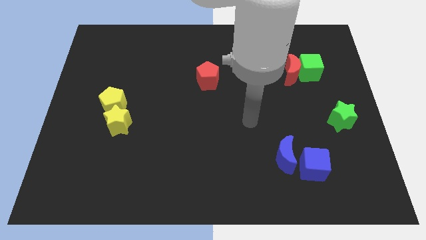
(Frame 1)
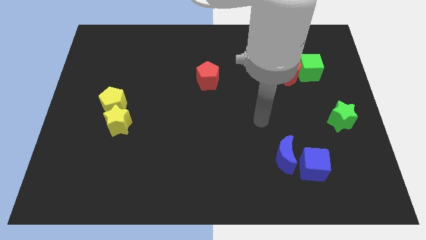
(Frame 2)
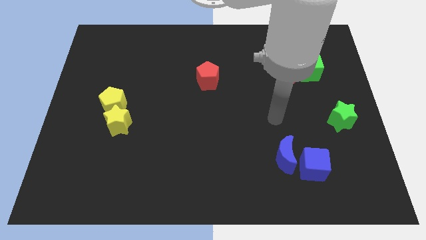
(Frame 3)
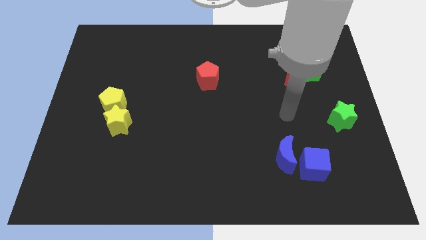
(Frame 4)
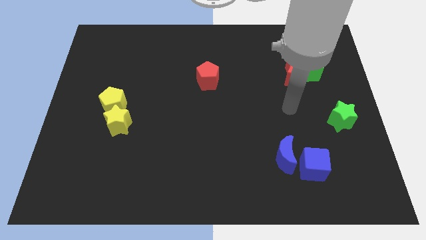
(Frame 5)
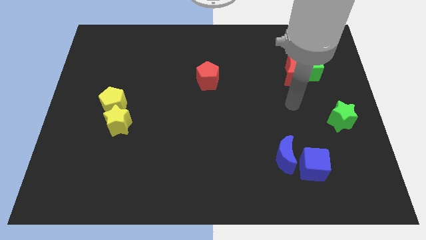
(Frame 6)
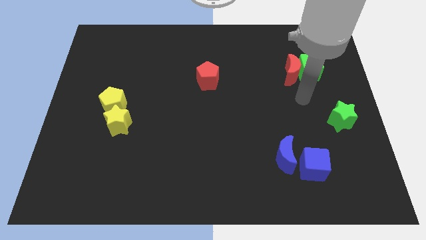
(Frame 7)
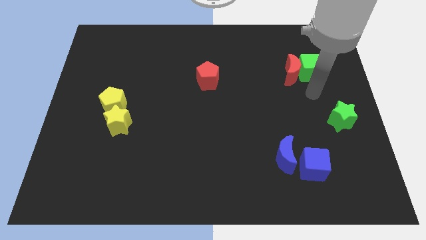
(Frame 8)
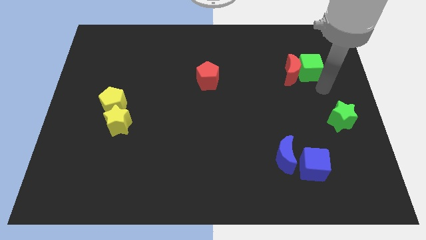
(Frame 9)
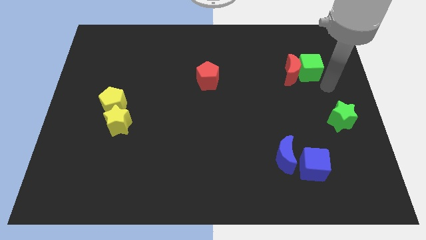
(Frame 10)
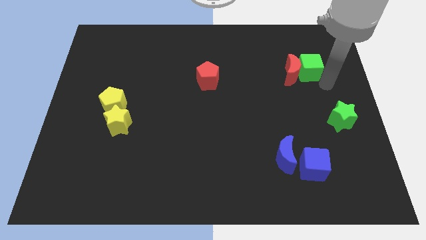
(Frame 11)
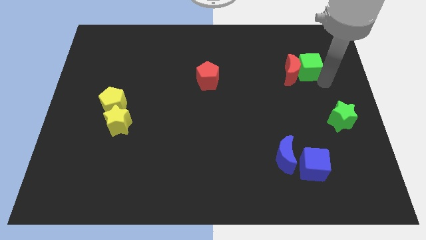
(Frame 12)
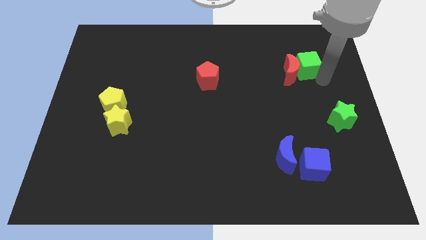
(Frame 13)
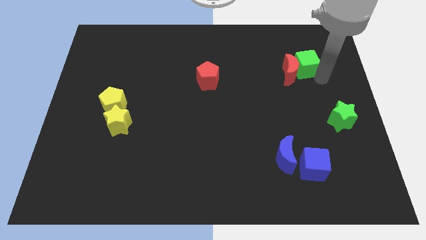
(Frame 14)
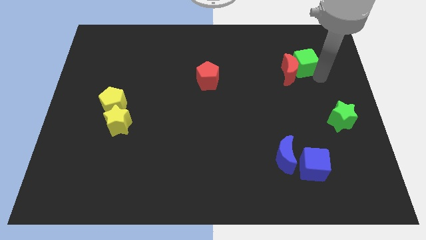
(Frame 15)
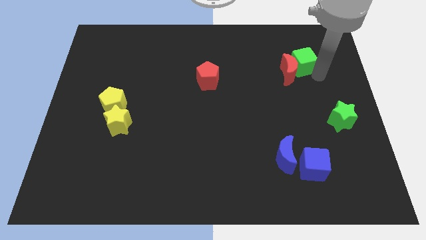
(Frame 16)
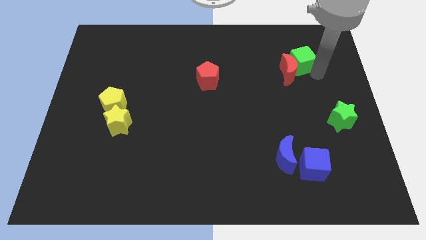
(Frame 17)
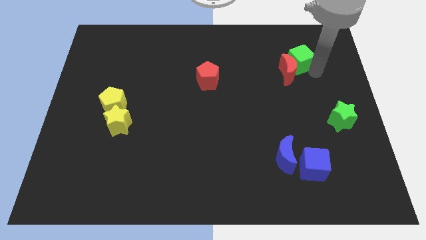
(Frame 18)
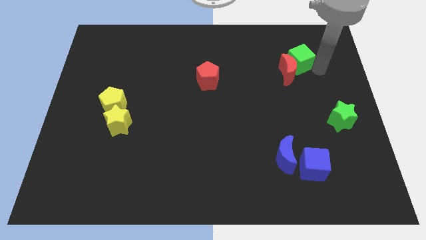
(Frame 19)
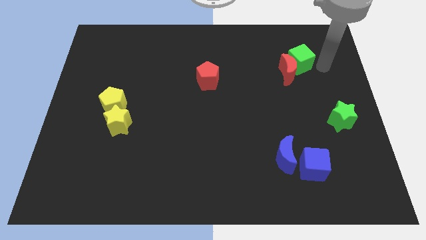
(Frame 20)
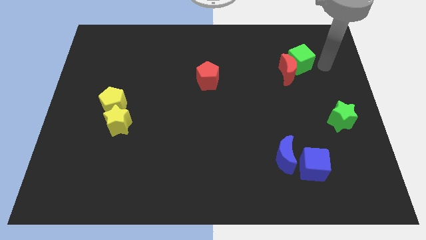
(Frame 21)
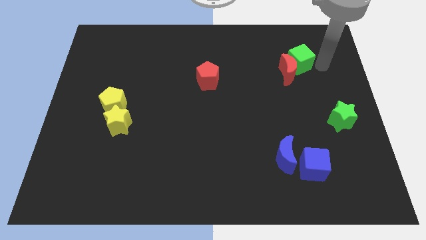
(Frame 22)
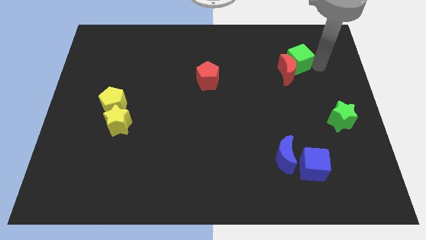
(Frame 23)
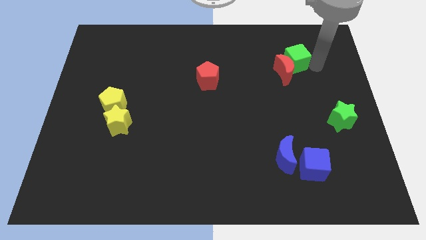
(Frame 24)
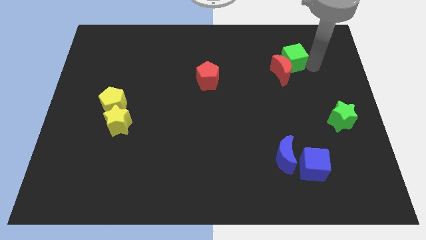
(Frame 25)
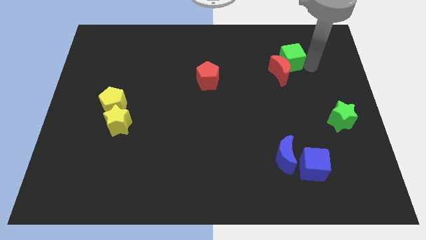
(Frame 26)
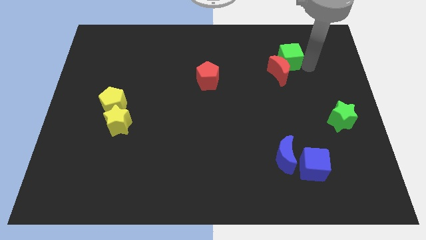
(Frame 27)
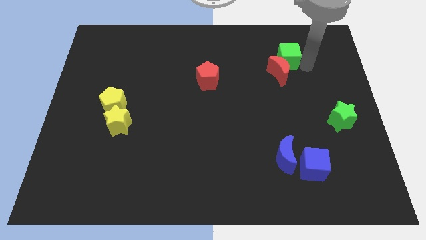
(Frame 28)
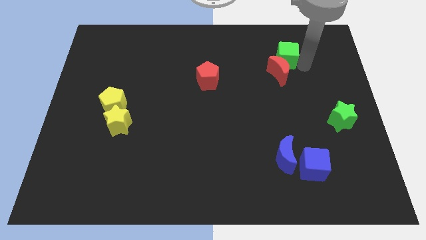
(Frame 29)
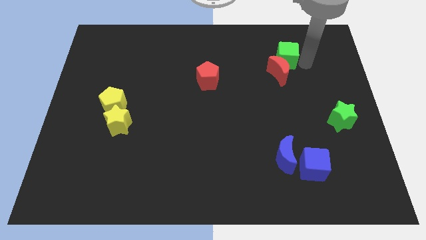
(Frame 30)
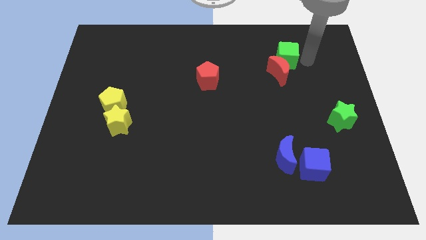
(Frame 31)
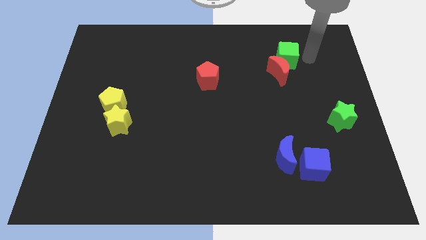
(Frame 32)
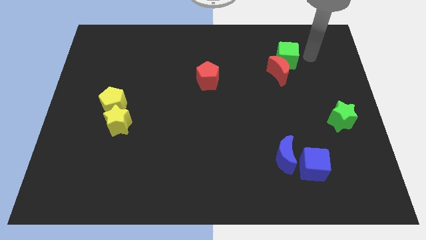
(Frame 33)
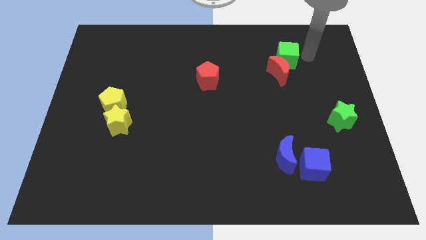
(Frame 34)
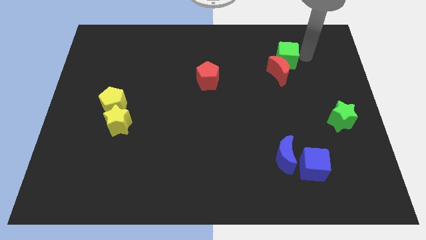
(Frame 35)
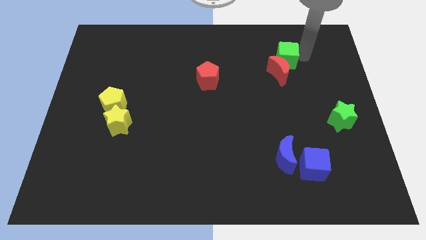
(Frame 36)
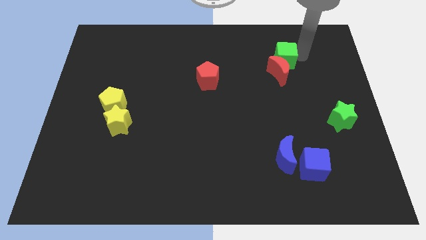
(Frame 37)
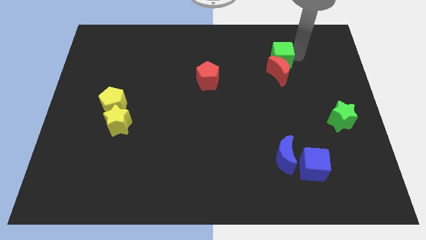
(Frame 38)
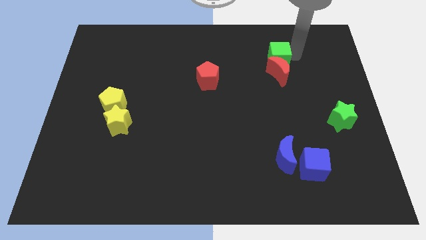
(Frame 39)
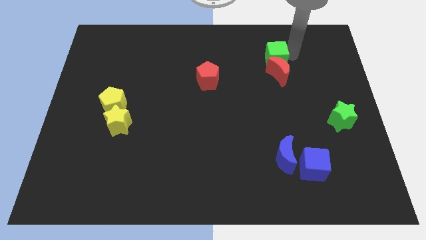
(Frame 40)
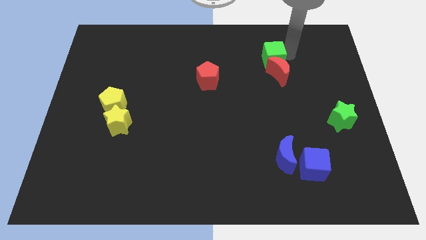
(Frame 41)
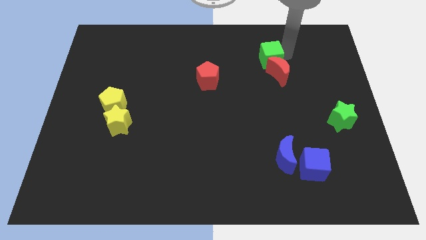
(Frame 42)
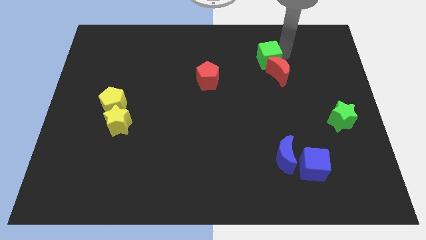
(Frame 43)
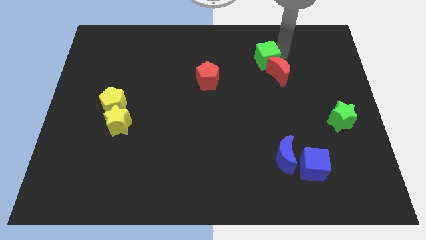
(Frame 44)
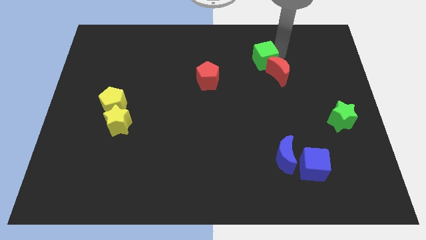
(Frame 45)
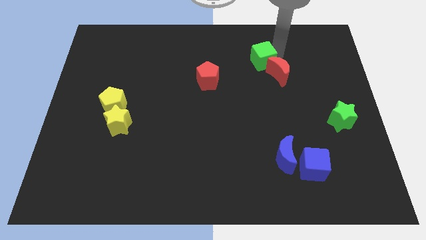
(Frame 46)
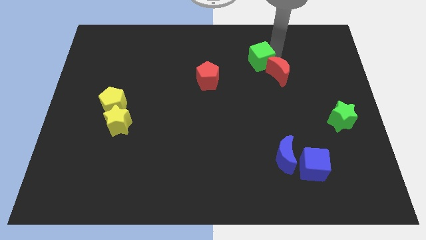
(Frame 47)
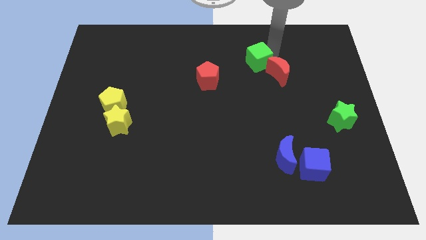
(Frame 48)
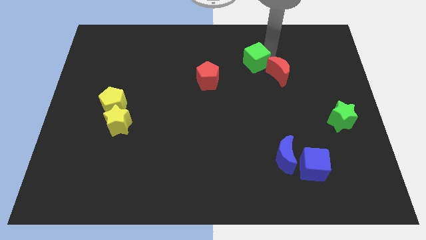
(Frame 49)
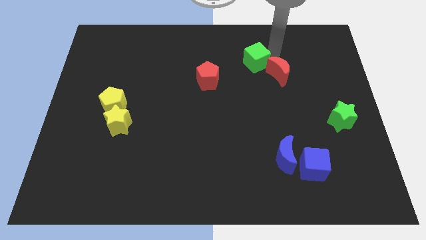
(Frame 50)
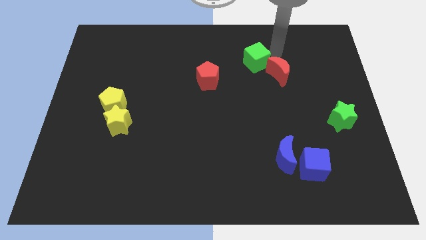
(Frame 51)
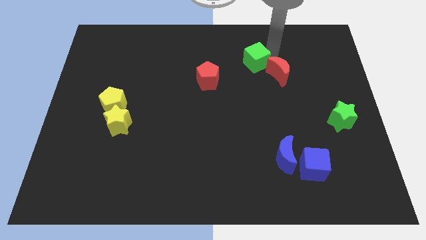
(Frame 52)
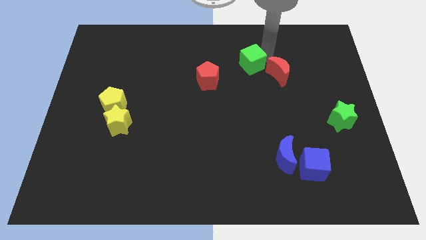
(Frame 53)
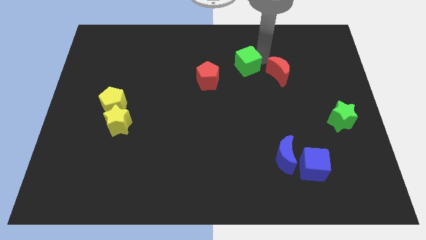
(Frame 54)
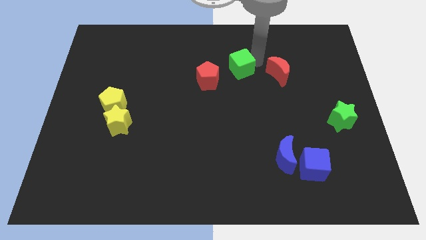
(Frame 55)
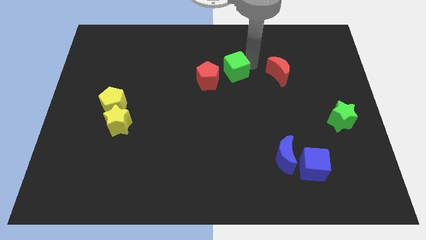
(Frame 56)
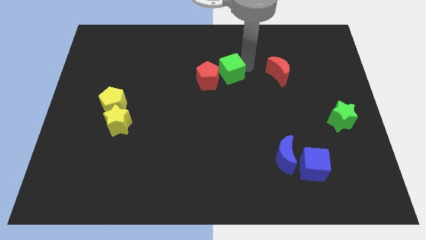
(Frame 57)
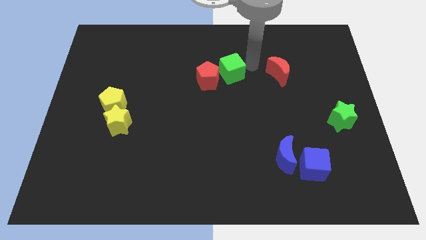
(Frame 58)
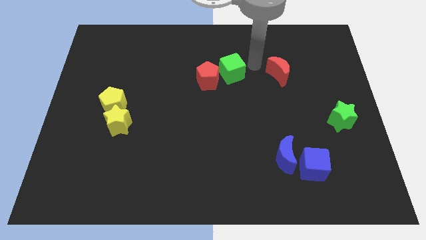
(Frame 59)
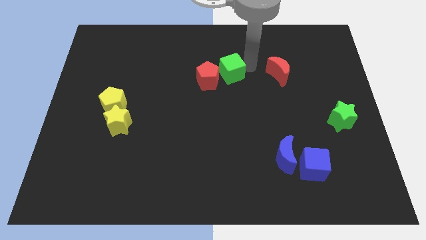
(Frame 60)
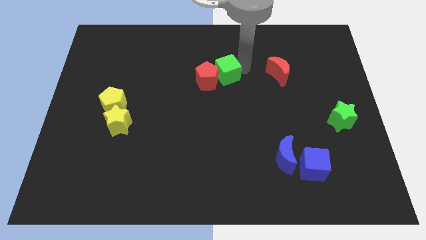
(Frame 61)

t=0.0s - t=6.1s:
slide the green cube close to the red pentagon
